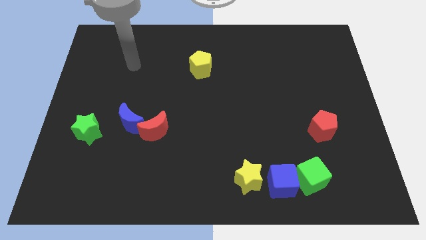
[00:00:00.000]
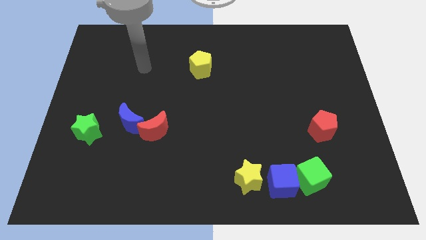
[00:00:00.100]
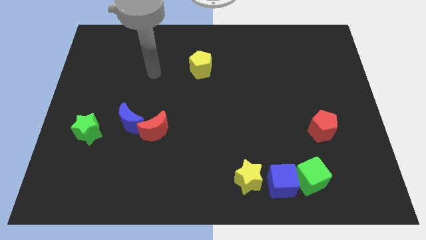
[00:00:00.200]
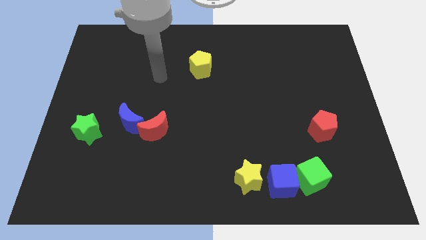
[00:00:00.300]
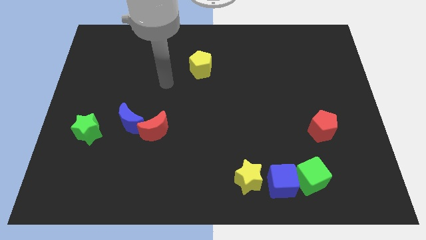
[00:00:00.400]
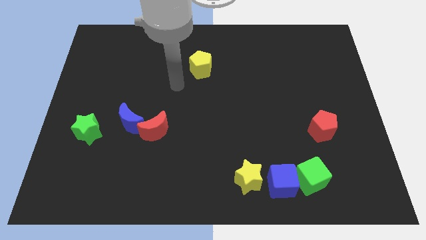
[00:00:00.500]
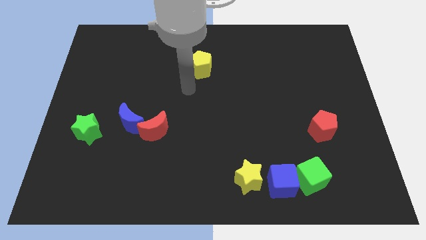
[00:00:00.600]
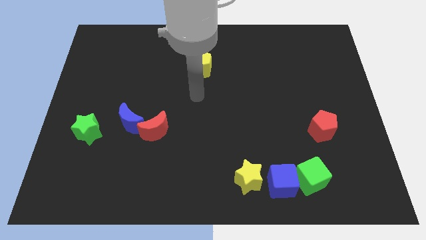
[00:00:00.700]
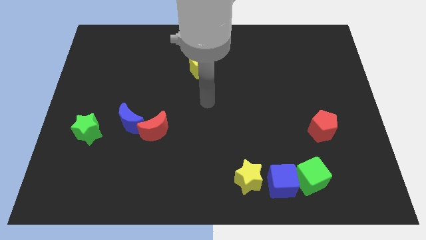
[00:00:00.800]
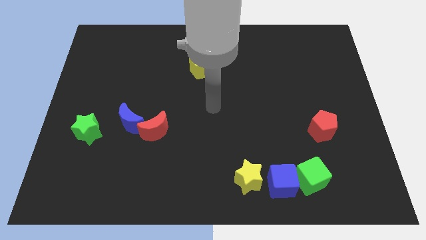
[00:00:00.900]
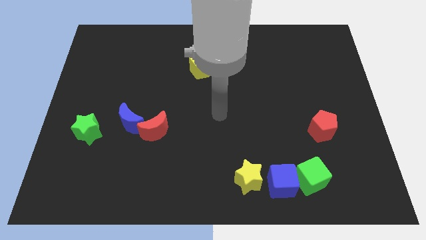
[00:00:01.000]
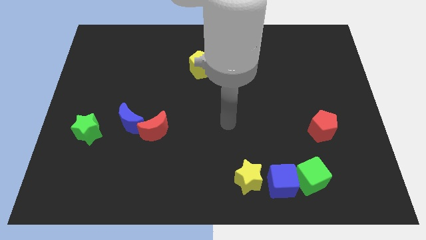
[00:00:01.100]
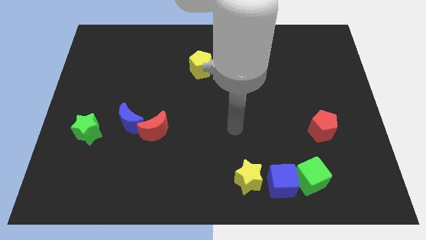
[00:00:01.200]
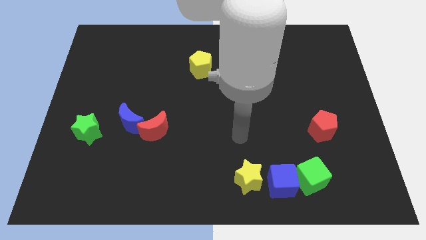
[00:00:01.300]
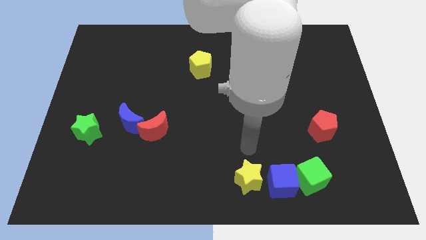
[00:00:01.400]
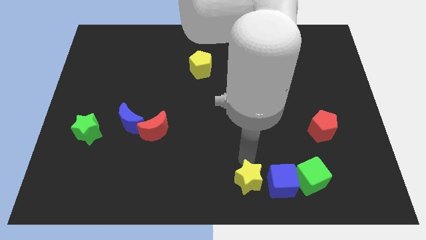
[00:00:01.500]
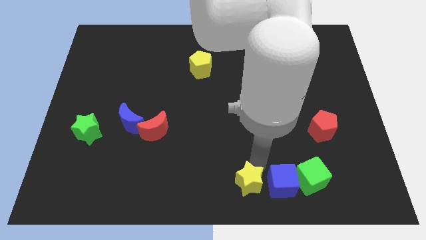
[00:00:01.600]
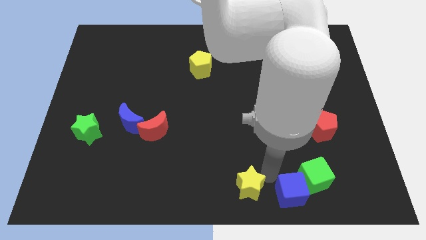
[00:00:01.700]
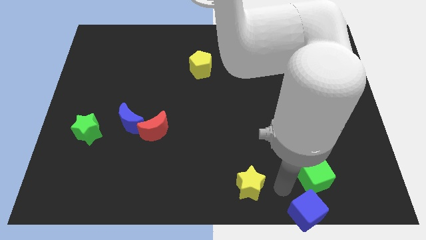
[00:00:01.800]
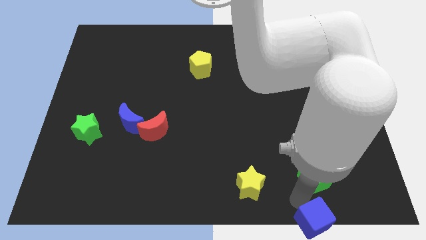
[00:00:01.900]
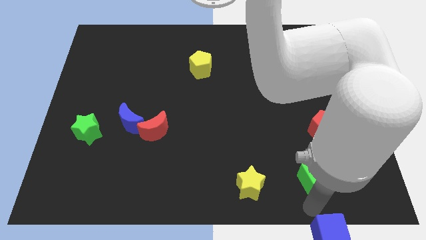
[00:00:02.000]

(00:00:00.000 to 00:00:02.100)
pull the green cube apart from the blue cube

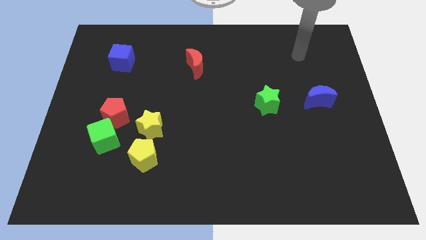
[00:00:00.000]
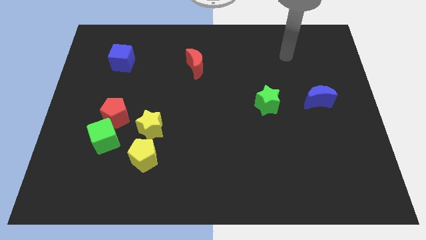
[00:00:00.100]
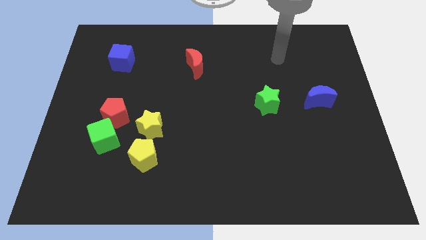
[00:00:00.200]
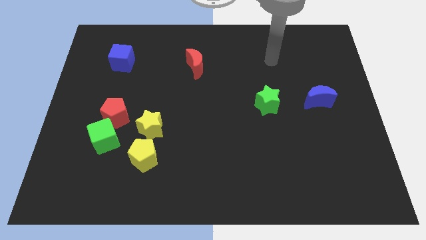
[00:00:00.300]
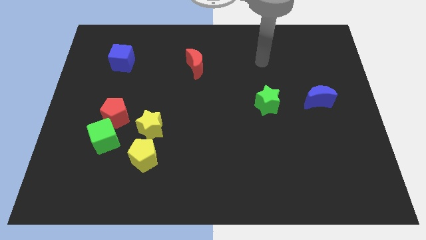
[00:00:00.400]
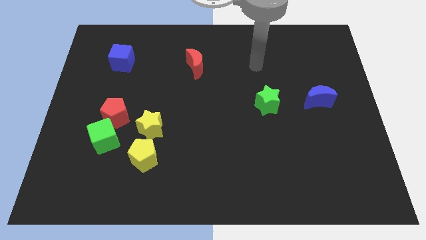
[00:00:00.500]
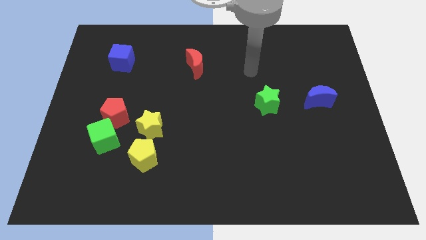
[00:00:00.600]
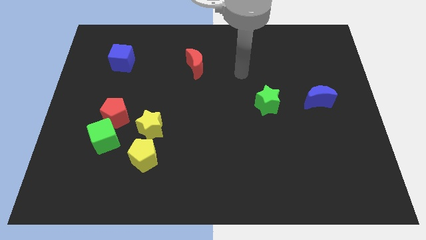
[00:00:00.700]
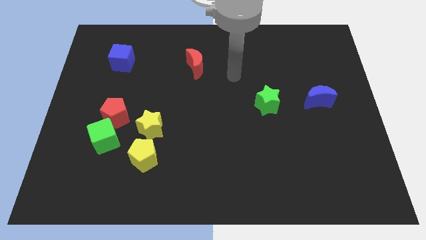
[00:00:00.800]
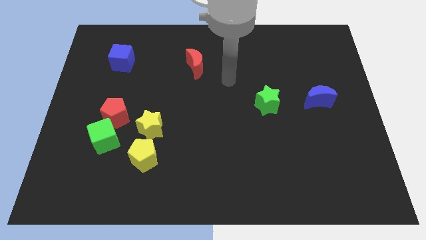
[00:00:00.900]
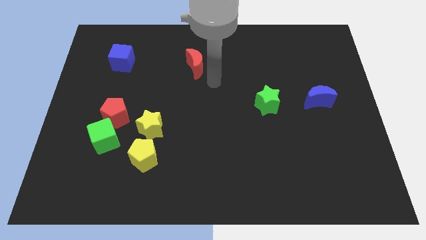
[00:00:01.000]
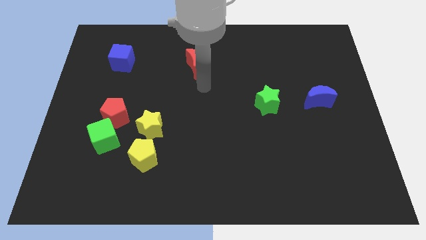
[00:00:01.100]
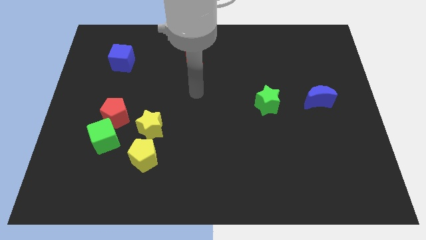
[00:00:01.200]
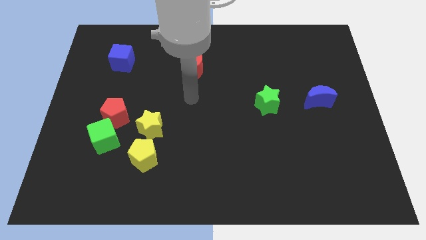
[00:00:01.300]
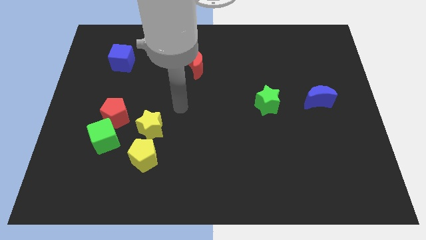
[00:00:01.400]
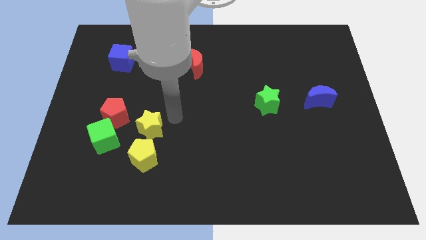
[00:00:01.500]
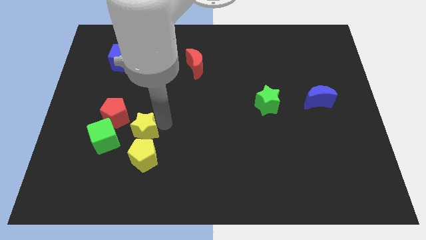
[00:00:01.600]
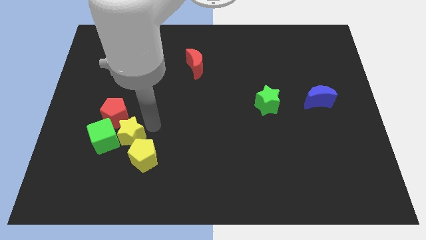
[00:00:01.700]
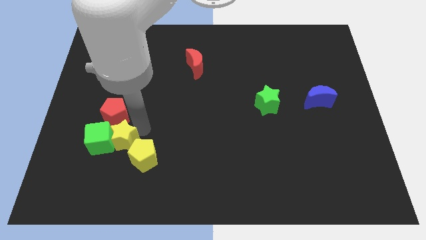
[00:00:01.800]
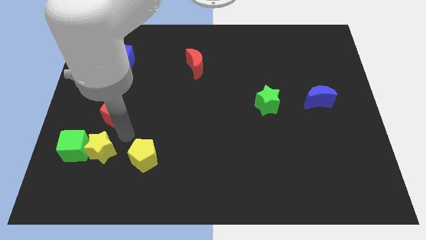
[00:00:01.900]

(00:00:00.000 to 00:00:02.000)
pull the red pentagon apart from the green cube and yellow star

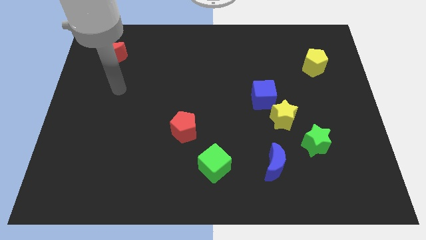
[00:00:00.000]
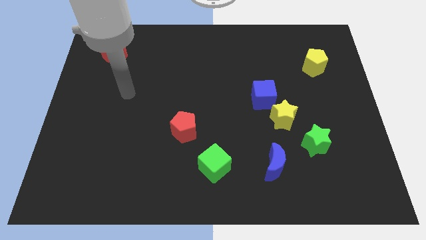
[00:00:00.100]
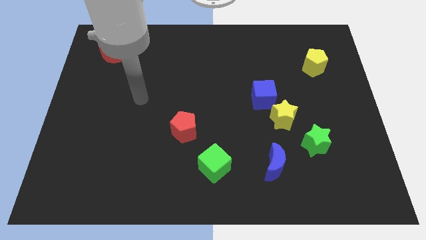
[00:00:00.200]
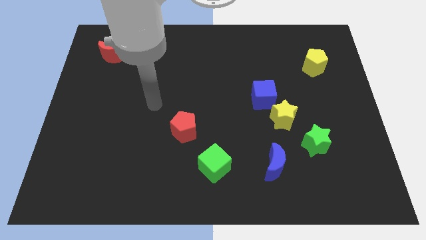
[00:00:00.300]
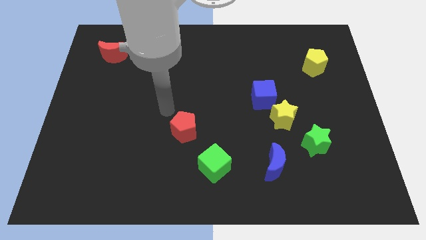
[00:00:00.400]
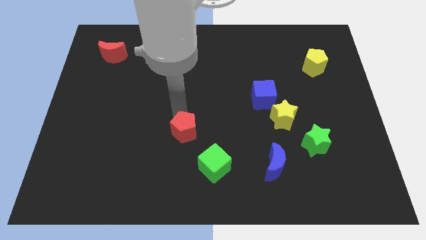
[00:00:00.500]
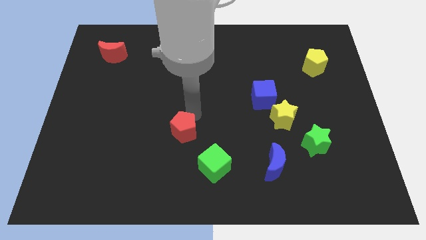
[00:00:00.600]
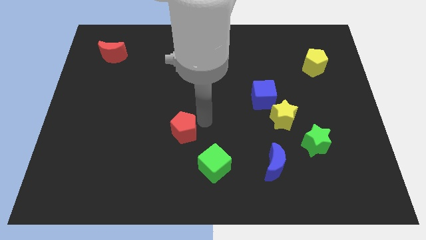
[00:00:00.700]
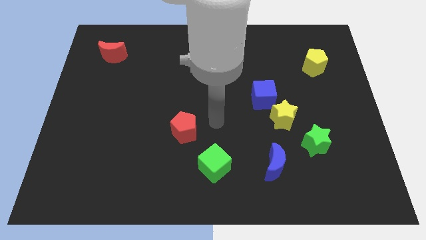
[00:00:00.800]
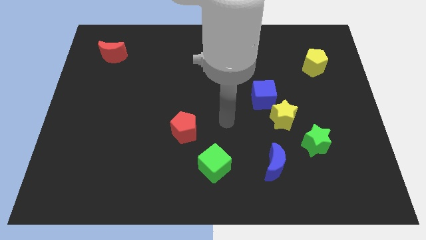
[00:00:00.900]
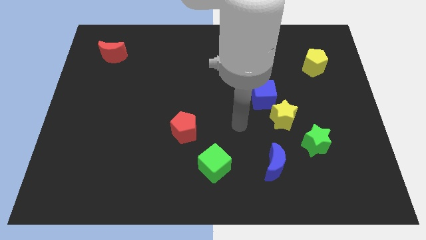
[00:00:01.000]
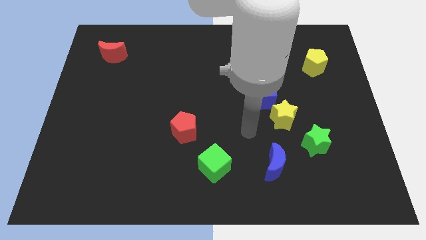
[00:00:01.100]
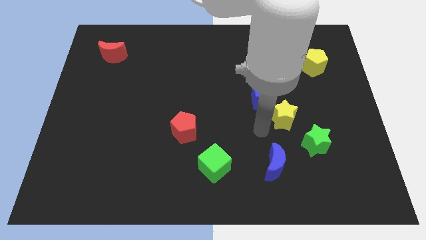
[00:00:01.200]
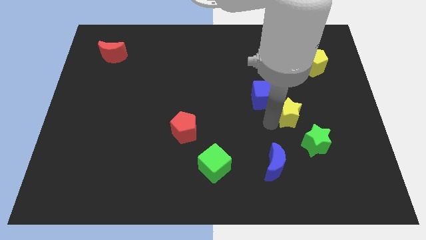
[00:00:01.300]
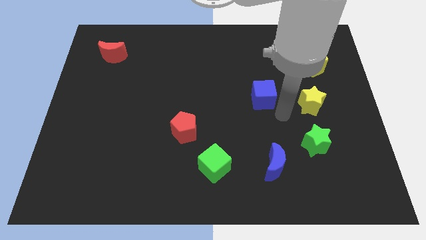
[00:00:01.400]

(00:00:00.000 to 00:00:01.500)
separate the blue cube from the yellow star

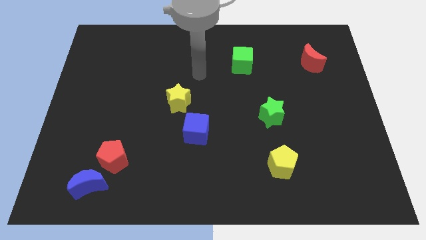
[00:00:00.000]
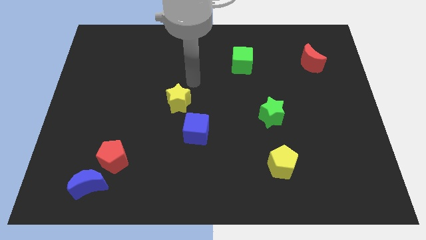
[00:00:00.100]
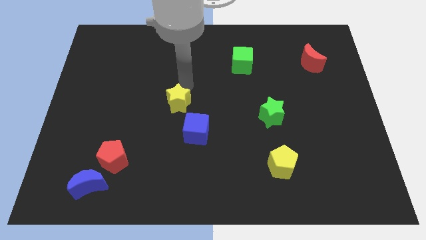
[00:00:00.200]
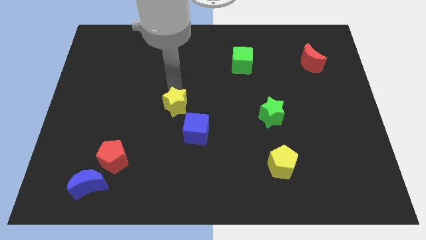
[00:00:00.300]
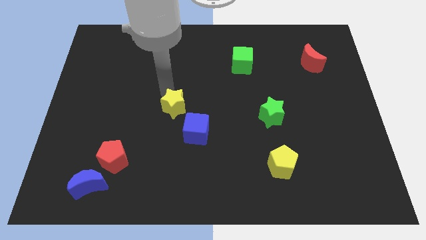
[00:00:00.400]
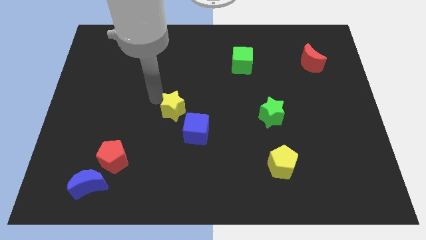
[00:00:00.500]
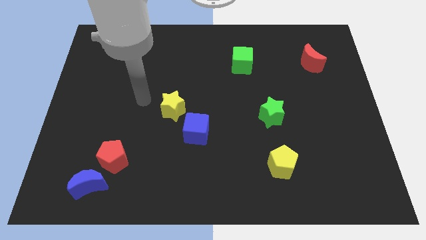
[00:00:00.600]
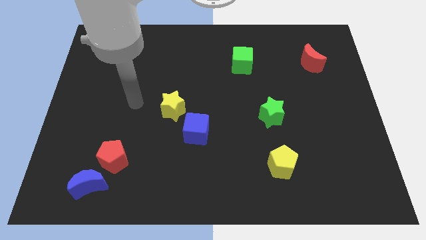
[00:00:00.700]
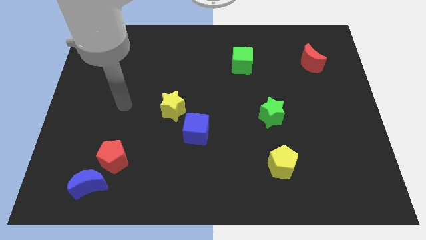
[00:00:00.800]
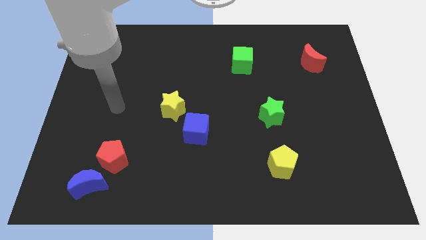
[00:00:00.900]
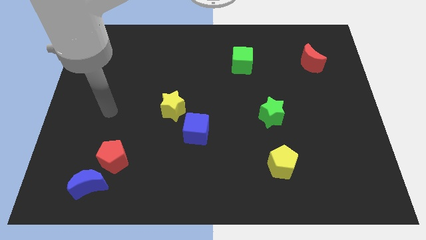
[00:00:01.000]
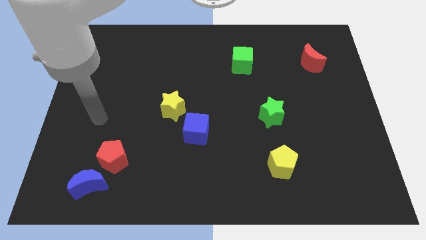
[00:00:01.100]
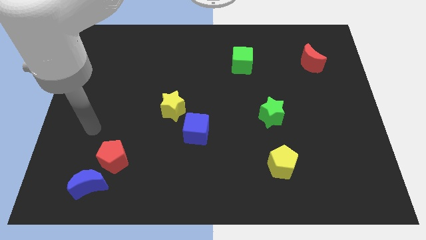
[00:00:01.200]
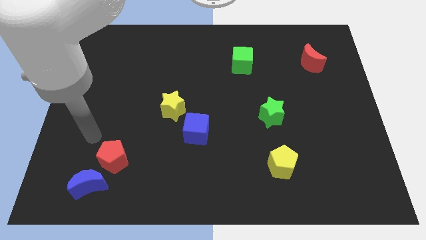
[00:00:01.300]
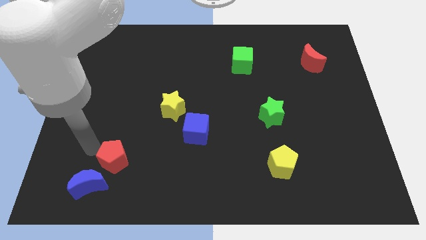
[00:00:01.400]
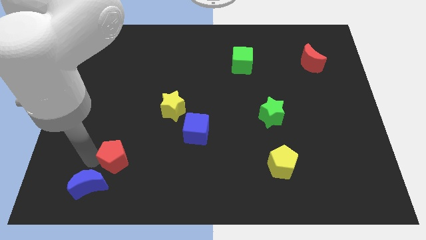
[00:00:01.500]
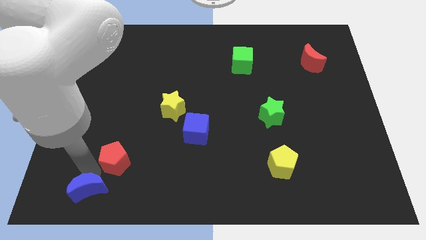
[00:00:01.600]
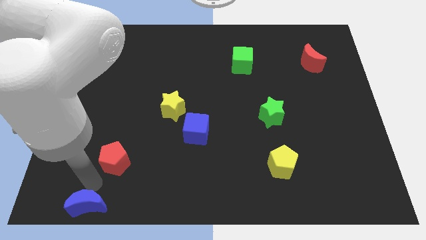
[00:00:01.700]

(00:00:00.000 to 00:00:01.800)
pull the red pentagon apart from the blue moon

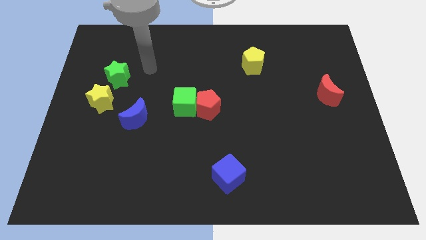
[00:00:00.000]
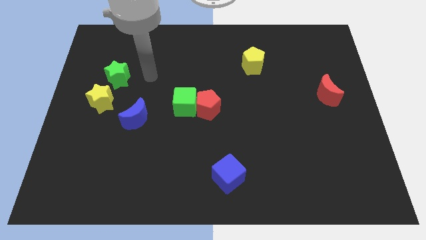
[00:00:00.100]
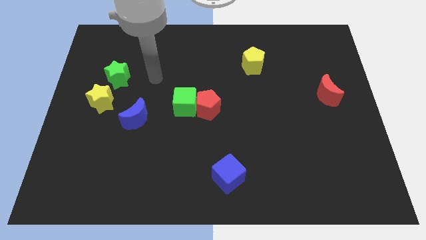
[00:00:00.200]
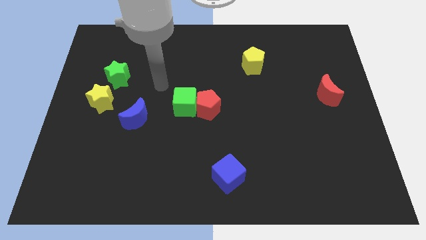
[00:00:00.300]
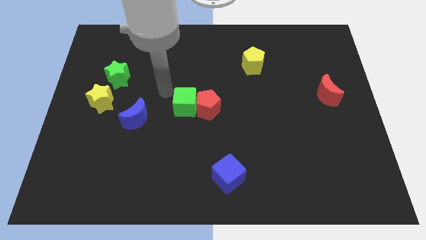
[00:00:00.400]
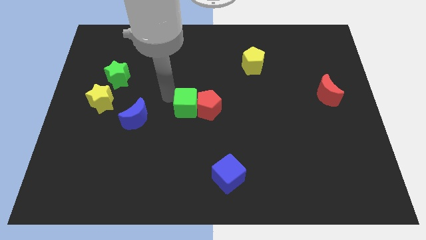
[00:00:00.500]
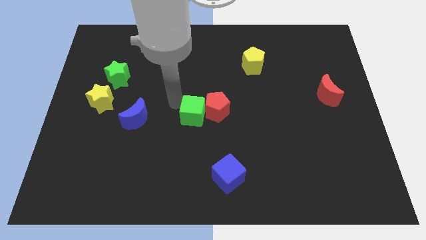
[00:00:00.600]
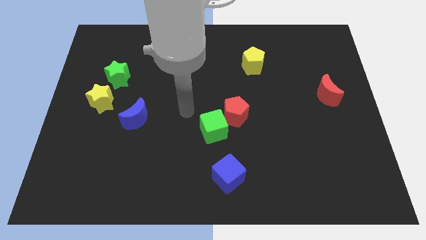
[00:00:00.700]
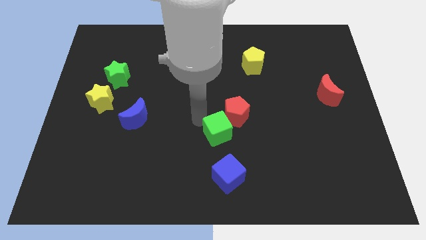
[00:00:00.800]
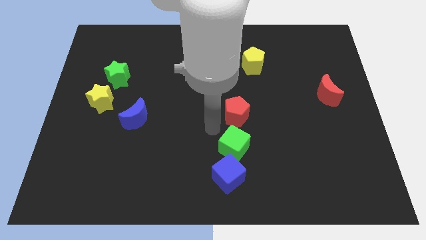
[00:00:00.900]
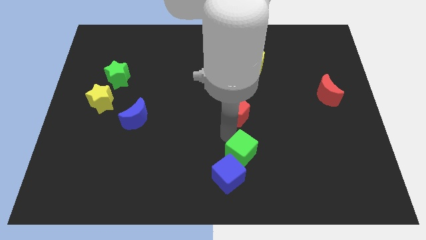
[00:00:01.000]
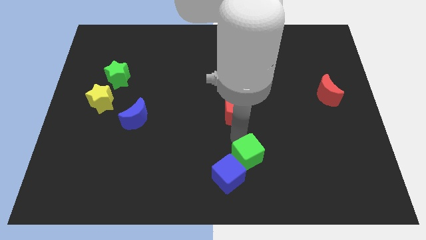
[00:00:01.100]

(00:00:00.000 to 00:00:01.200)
separate the red pentagon from the green cube

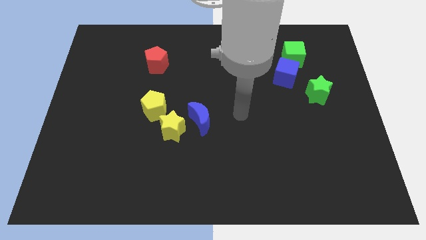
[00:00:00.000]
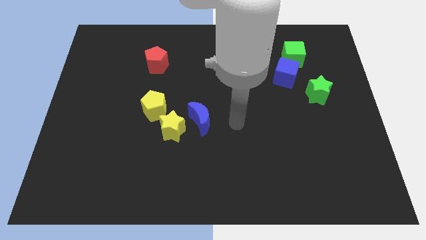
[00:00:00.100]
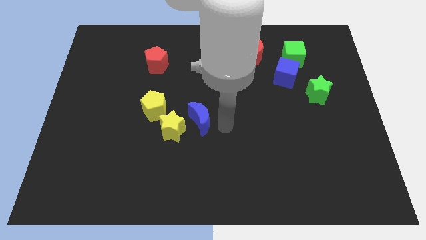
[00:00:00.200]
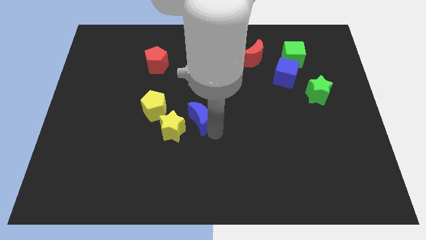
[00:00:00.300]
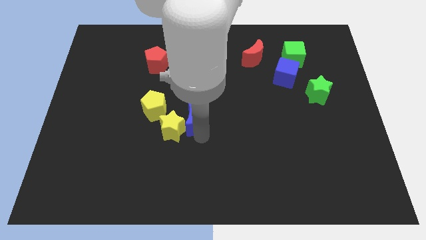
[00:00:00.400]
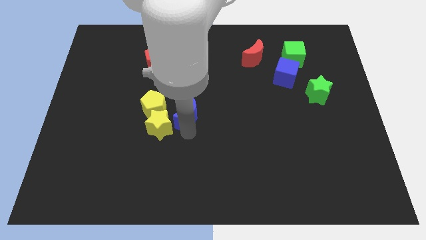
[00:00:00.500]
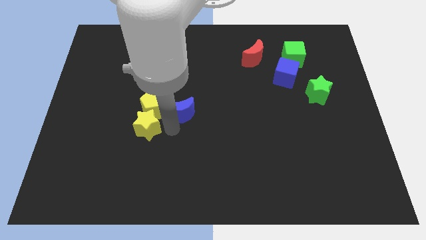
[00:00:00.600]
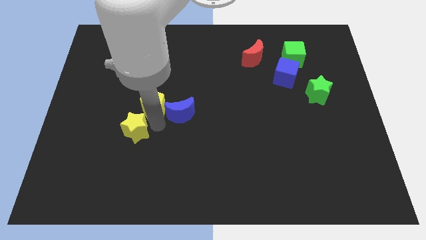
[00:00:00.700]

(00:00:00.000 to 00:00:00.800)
move the blue moon away from the yellow star
